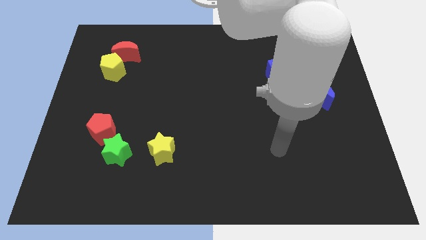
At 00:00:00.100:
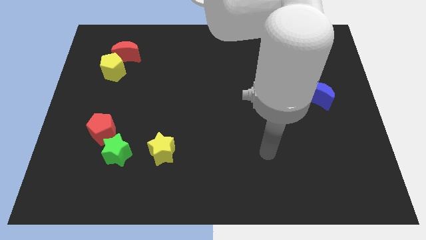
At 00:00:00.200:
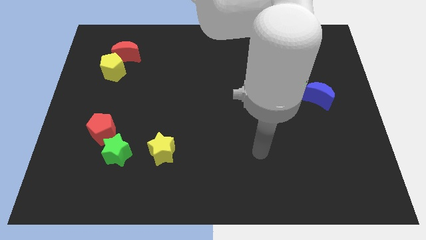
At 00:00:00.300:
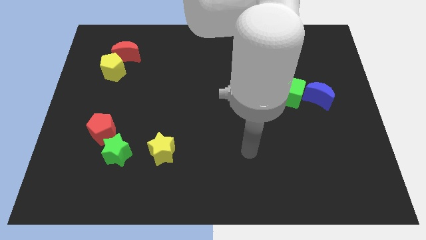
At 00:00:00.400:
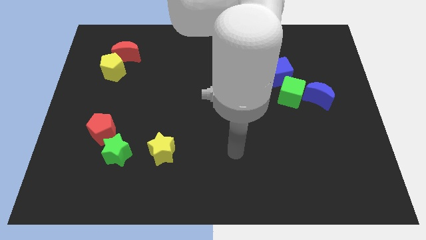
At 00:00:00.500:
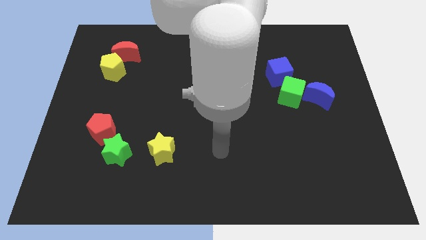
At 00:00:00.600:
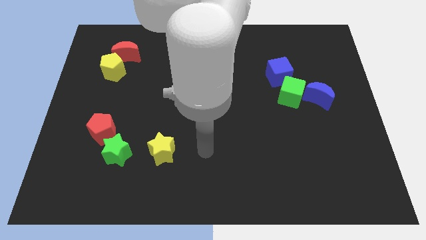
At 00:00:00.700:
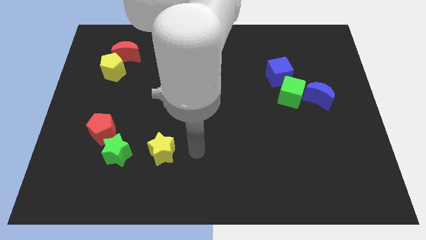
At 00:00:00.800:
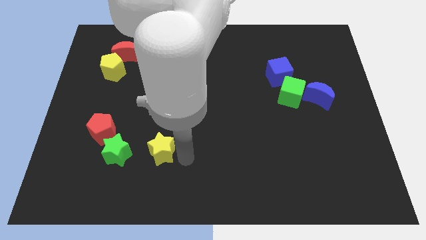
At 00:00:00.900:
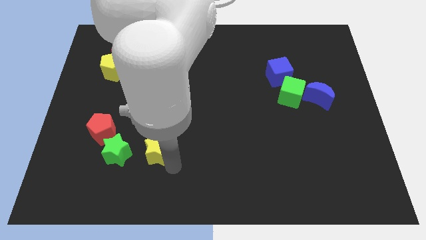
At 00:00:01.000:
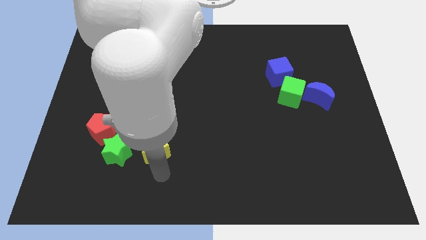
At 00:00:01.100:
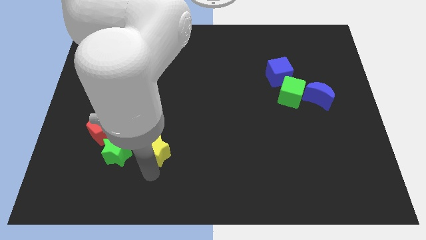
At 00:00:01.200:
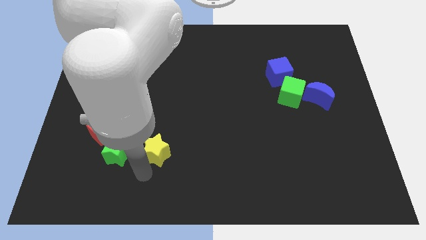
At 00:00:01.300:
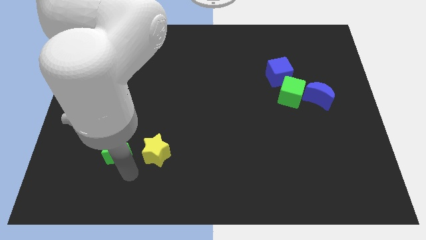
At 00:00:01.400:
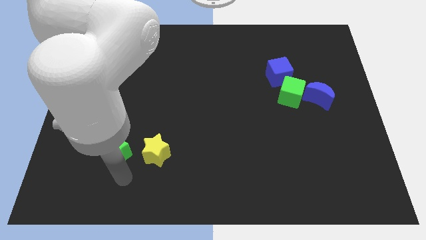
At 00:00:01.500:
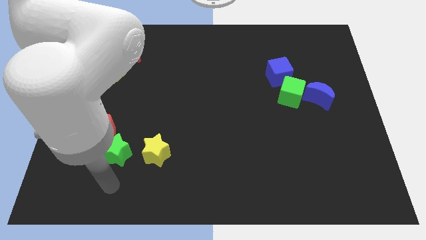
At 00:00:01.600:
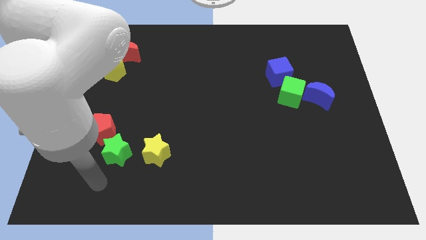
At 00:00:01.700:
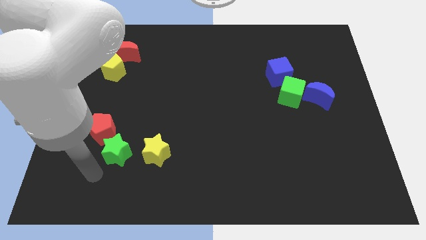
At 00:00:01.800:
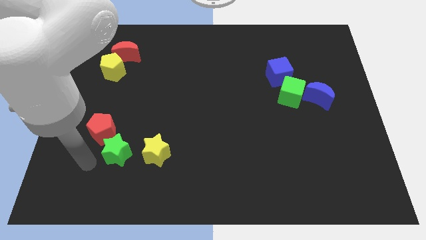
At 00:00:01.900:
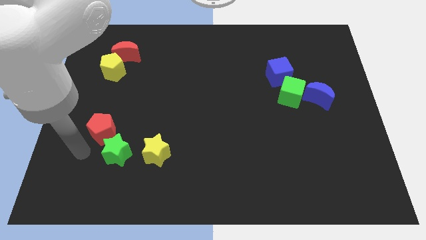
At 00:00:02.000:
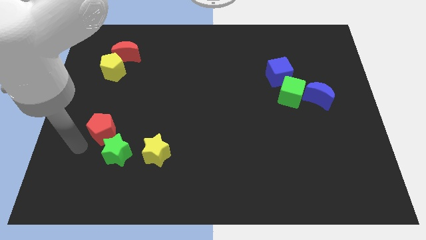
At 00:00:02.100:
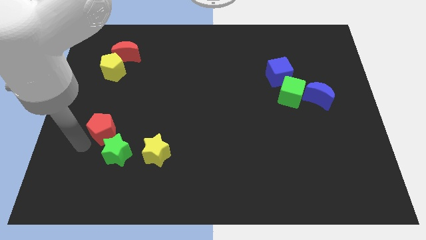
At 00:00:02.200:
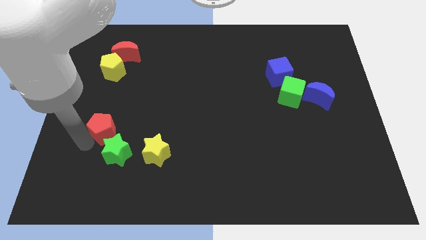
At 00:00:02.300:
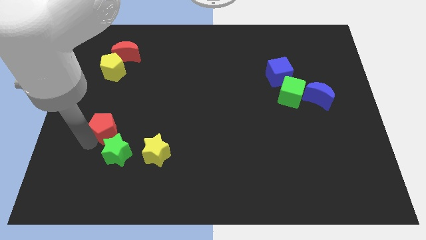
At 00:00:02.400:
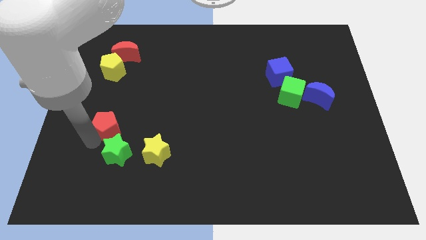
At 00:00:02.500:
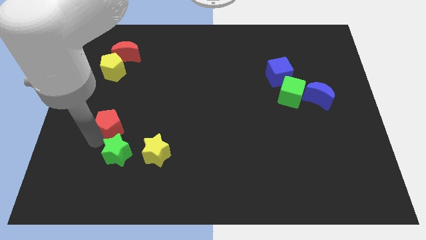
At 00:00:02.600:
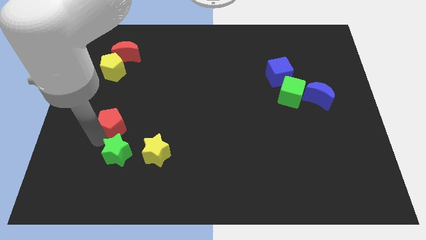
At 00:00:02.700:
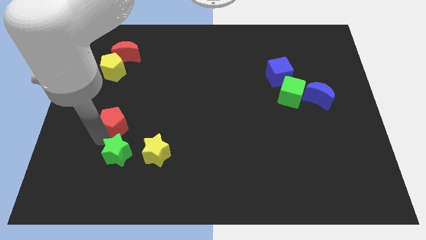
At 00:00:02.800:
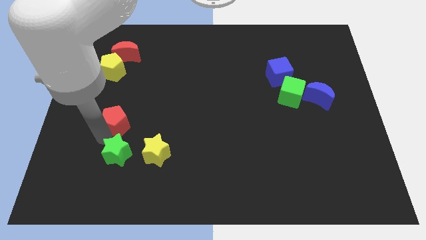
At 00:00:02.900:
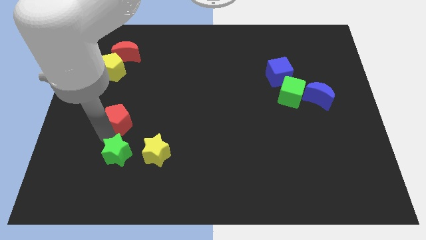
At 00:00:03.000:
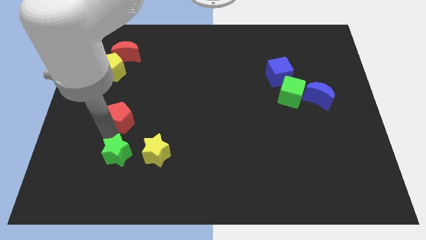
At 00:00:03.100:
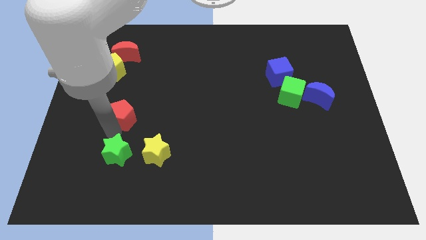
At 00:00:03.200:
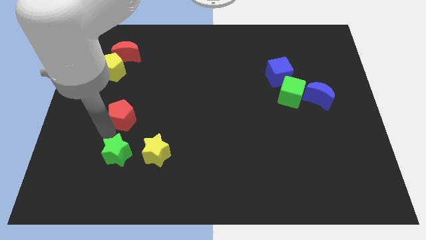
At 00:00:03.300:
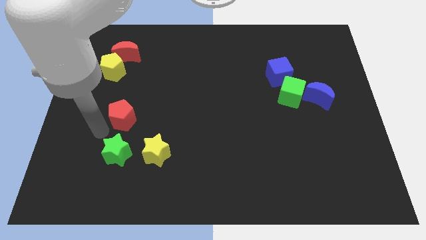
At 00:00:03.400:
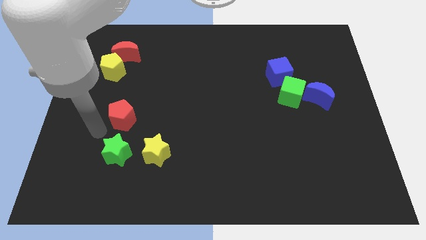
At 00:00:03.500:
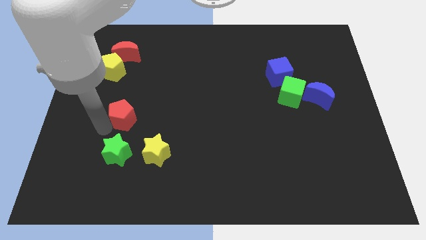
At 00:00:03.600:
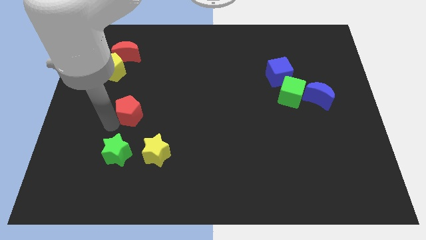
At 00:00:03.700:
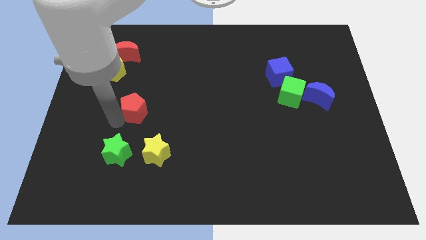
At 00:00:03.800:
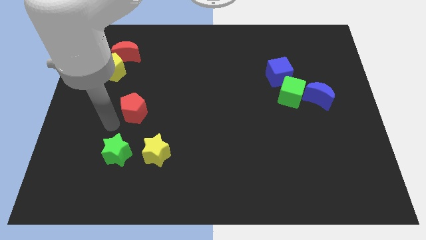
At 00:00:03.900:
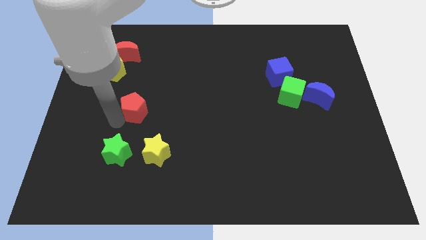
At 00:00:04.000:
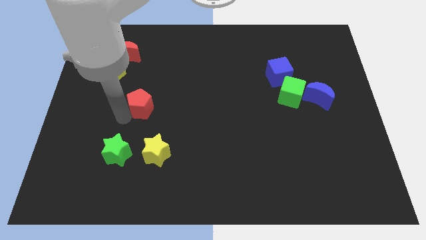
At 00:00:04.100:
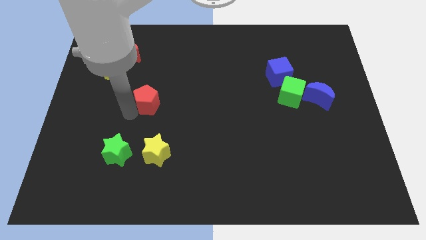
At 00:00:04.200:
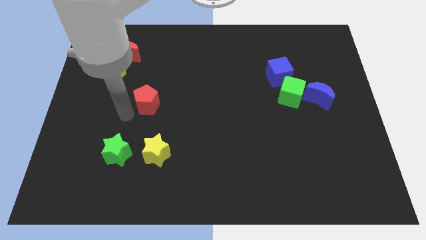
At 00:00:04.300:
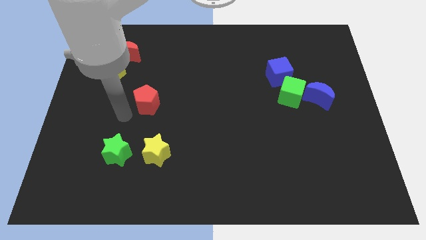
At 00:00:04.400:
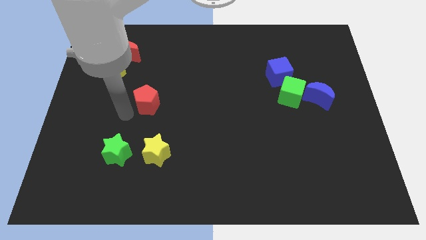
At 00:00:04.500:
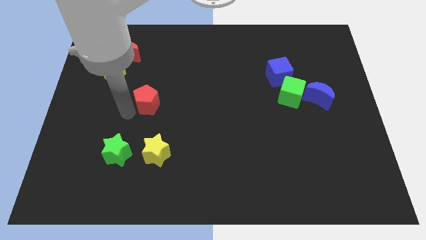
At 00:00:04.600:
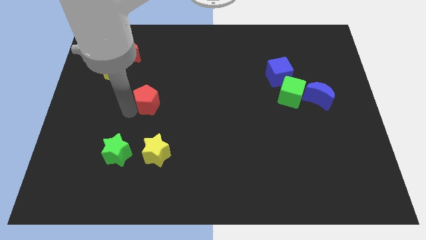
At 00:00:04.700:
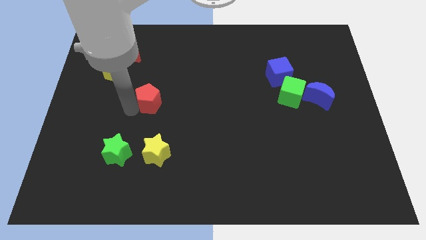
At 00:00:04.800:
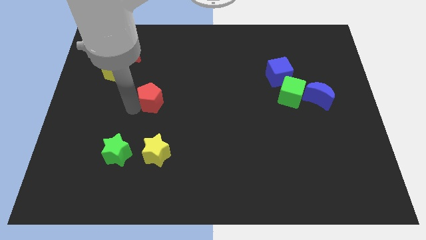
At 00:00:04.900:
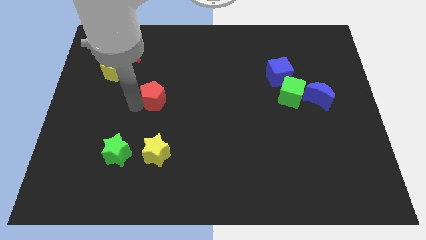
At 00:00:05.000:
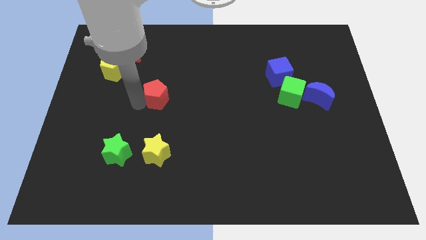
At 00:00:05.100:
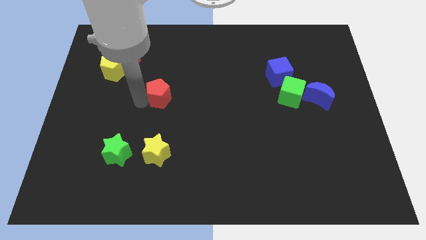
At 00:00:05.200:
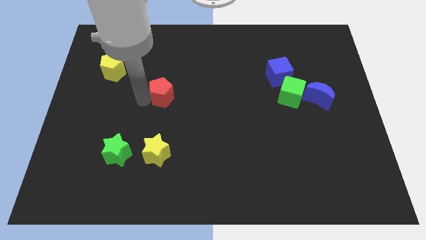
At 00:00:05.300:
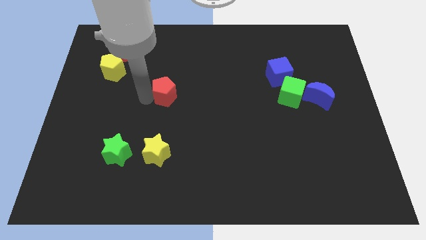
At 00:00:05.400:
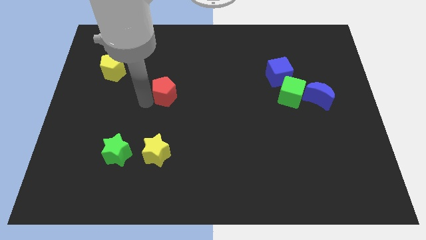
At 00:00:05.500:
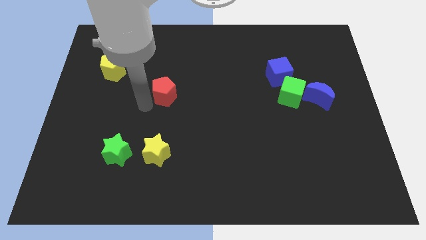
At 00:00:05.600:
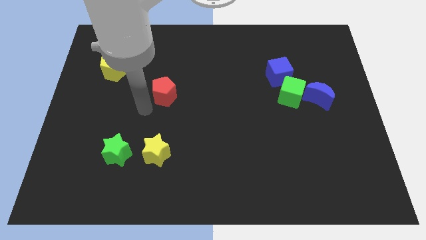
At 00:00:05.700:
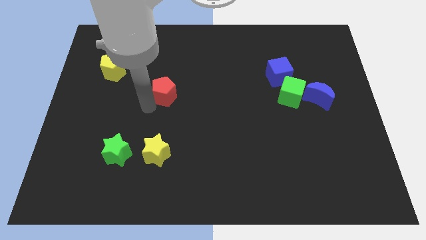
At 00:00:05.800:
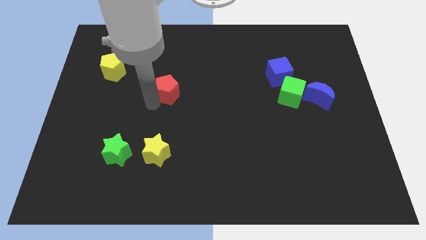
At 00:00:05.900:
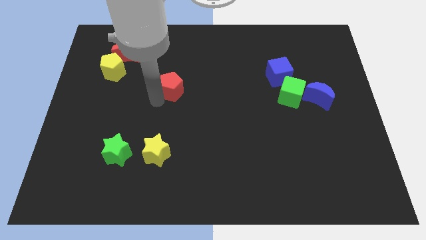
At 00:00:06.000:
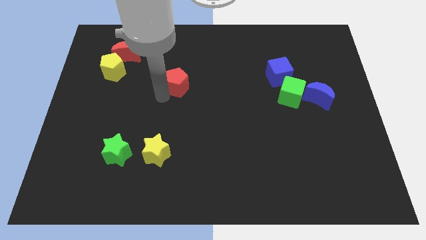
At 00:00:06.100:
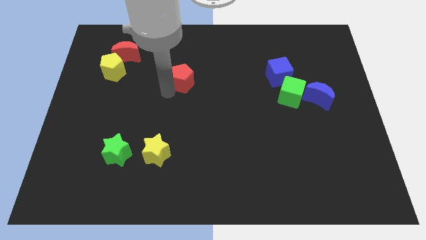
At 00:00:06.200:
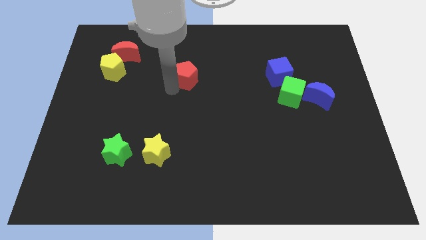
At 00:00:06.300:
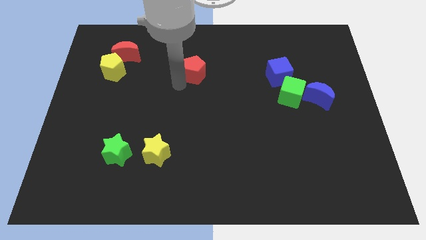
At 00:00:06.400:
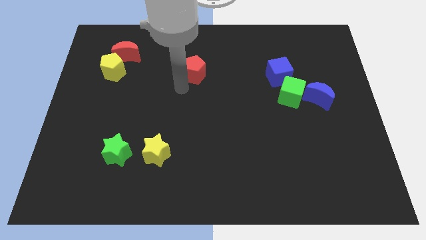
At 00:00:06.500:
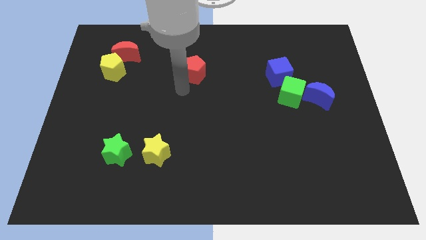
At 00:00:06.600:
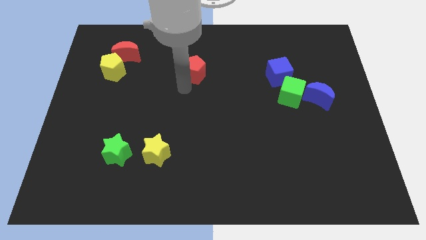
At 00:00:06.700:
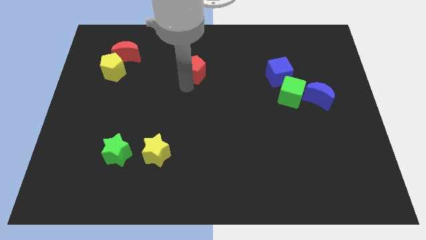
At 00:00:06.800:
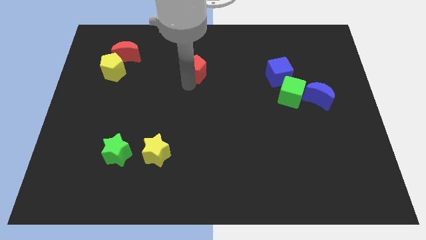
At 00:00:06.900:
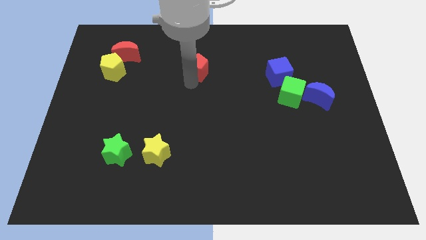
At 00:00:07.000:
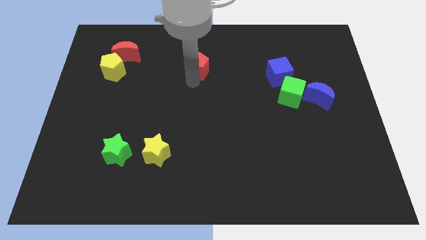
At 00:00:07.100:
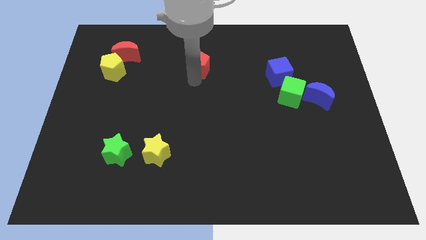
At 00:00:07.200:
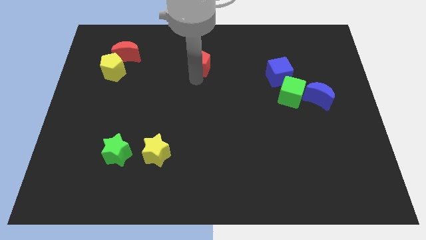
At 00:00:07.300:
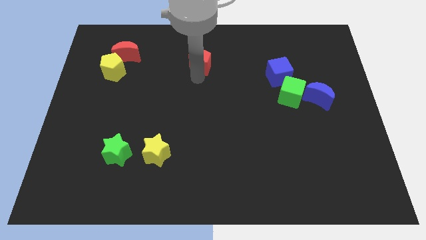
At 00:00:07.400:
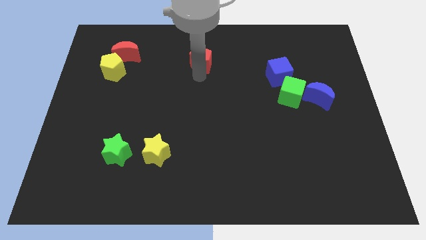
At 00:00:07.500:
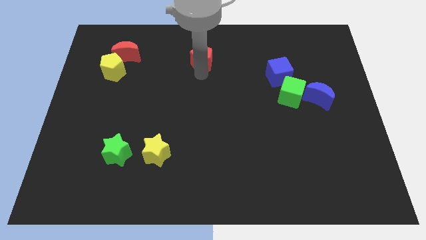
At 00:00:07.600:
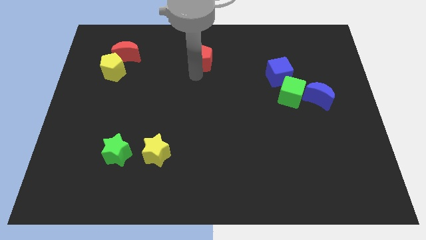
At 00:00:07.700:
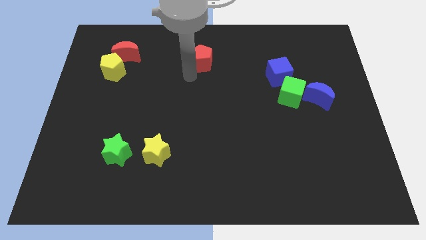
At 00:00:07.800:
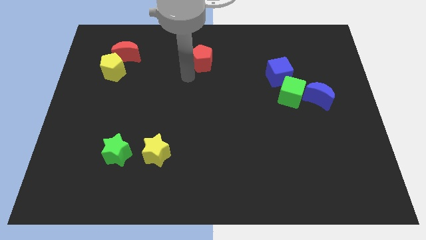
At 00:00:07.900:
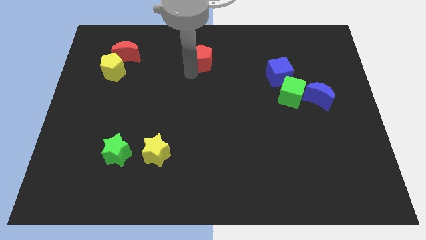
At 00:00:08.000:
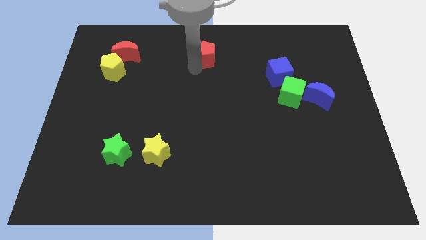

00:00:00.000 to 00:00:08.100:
slide the red pentagon to the top
